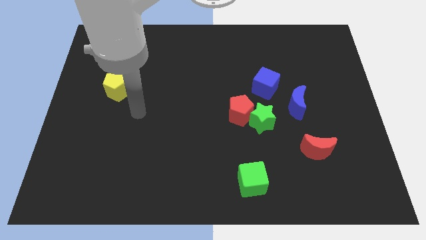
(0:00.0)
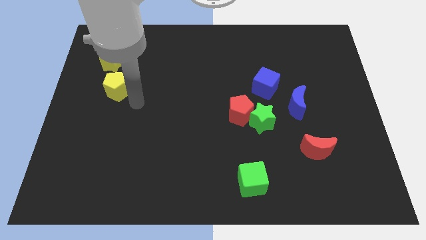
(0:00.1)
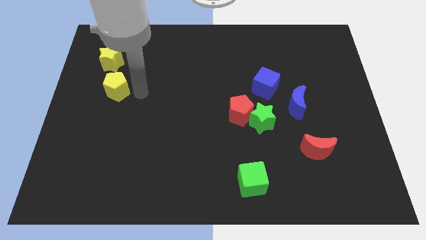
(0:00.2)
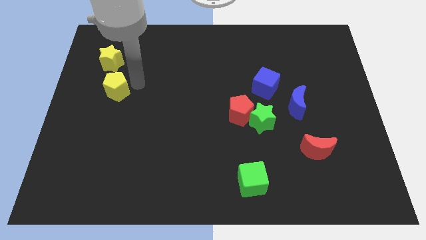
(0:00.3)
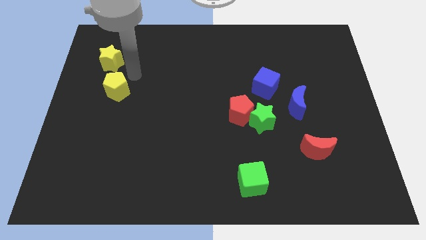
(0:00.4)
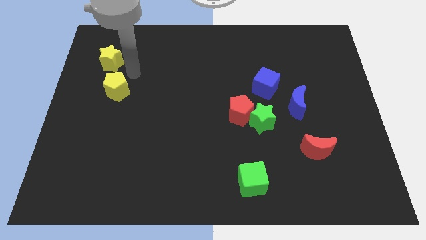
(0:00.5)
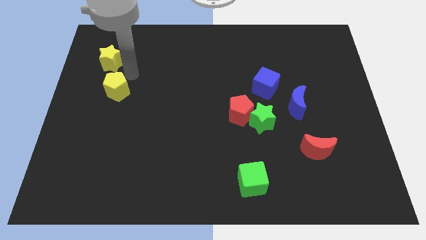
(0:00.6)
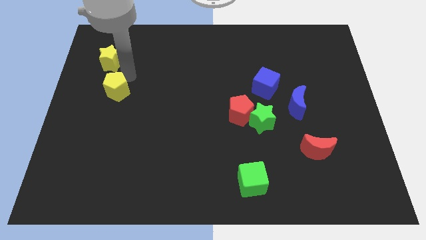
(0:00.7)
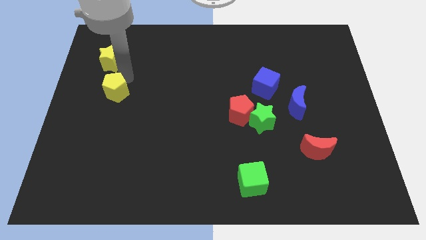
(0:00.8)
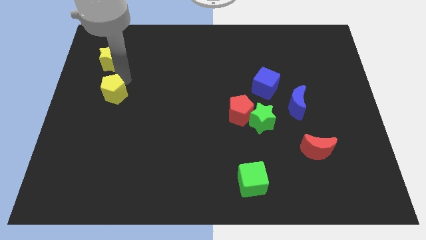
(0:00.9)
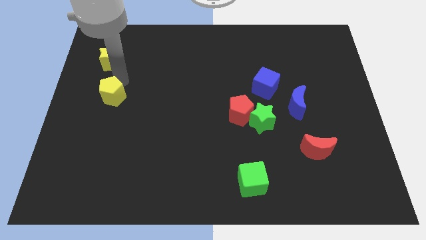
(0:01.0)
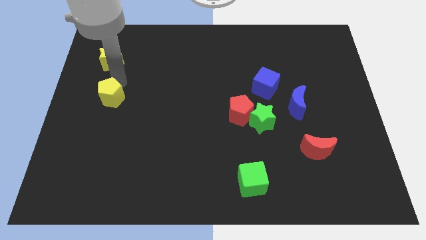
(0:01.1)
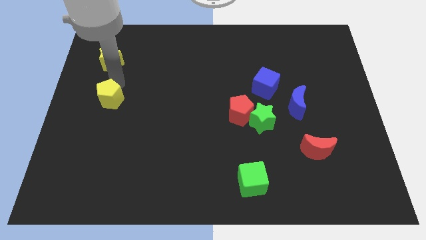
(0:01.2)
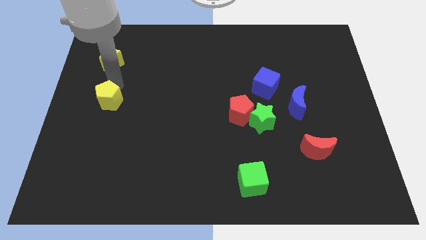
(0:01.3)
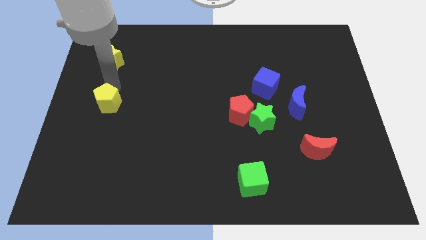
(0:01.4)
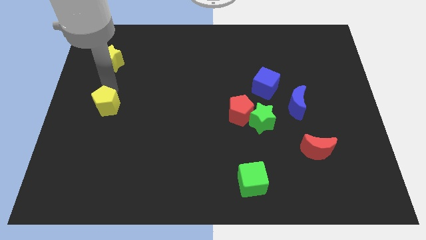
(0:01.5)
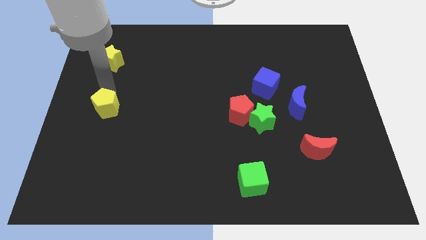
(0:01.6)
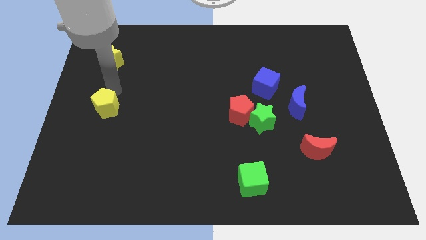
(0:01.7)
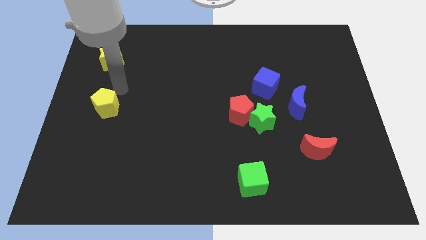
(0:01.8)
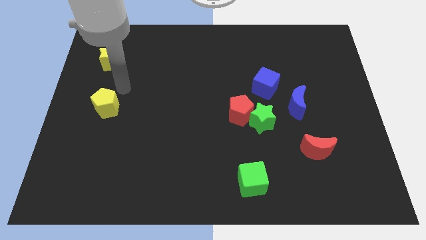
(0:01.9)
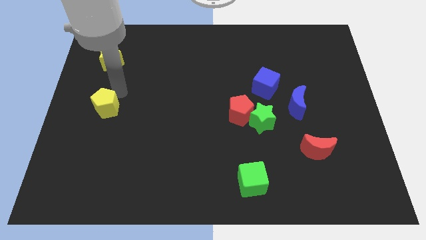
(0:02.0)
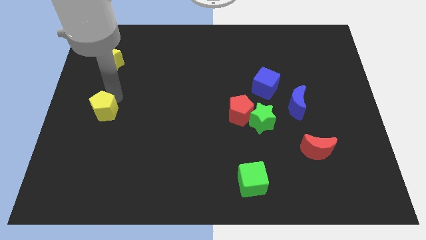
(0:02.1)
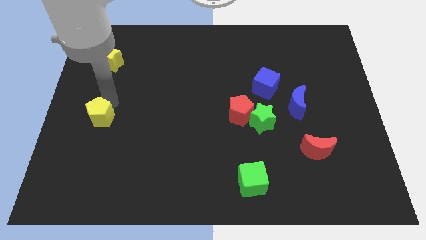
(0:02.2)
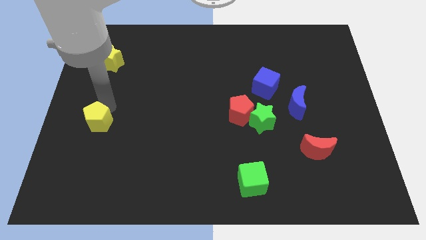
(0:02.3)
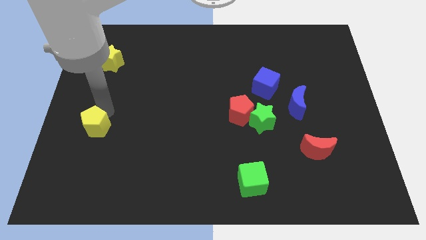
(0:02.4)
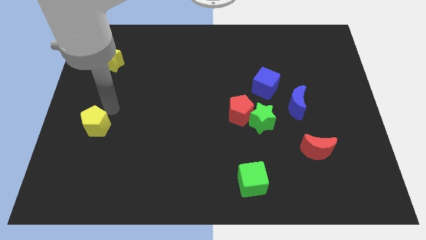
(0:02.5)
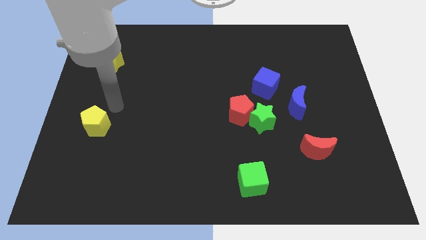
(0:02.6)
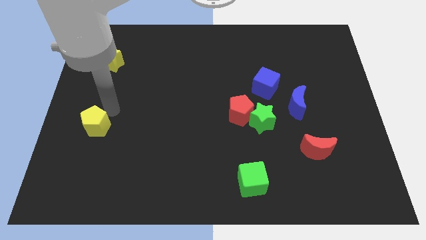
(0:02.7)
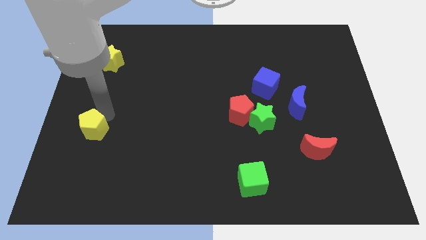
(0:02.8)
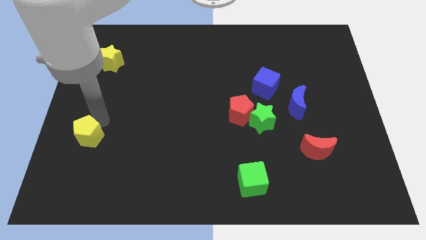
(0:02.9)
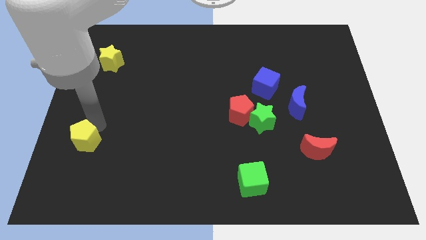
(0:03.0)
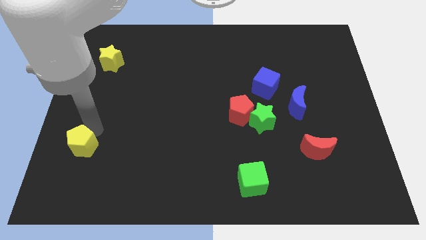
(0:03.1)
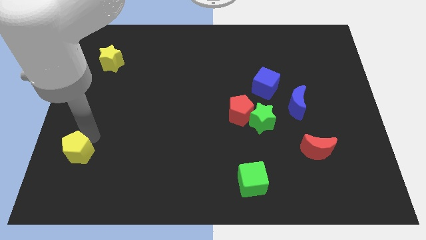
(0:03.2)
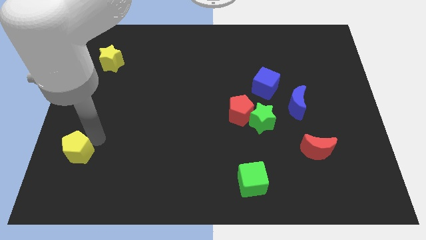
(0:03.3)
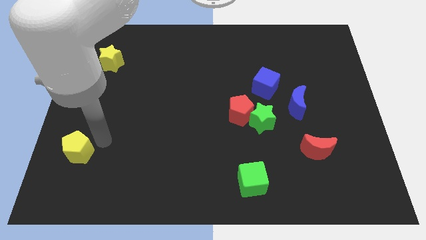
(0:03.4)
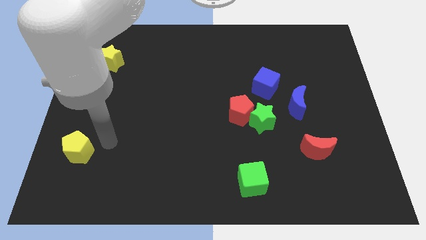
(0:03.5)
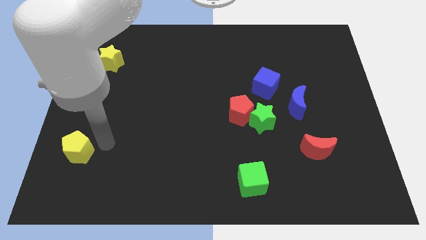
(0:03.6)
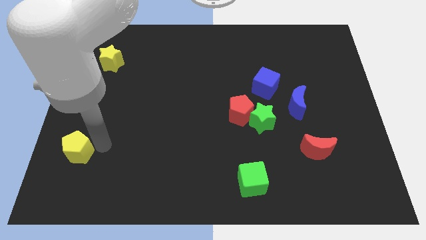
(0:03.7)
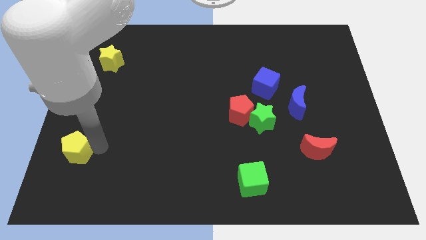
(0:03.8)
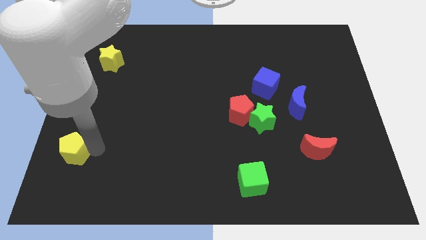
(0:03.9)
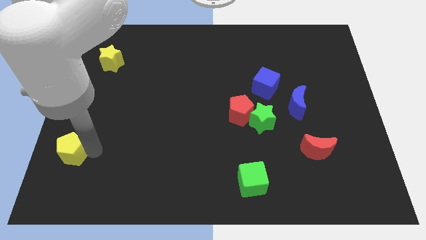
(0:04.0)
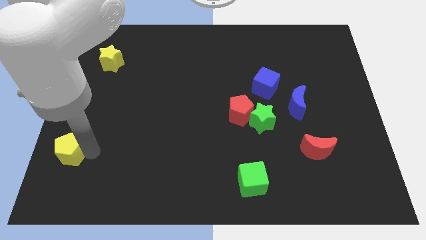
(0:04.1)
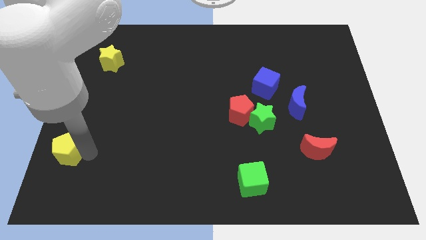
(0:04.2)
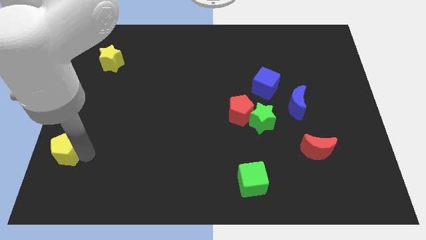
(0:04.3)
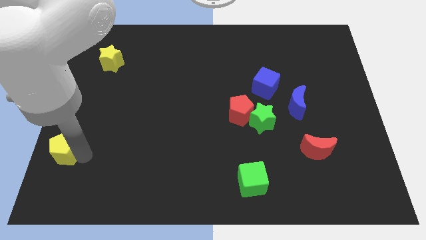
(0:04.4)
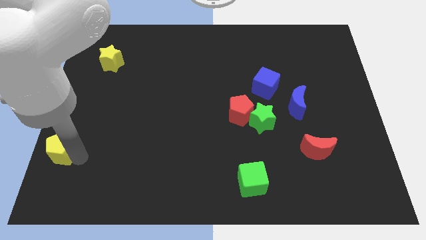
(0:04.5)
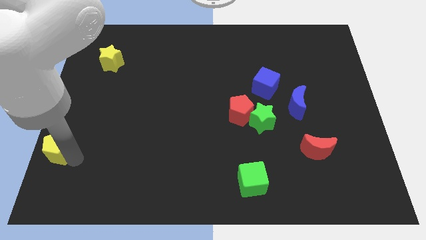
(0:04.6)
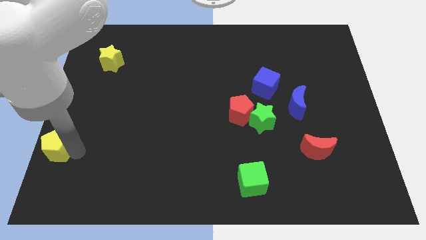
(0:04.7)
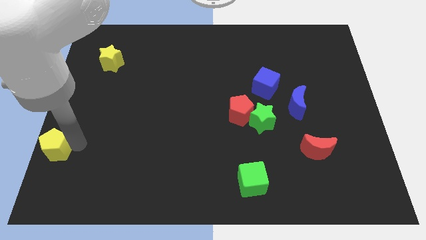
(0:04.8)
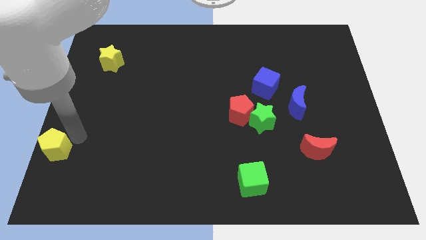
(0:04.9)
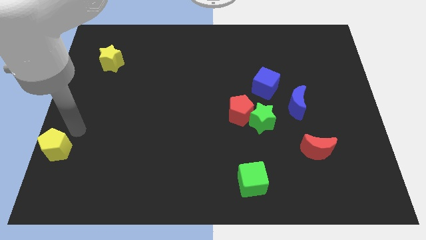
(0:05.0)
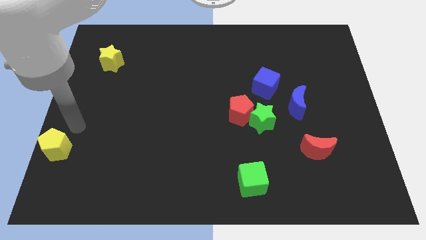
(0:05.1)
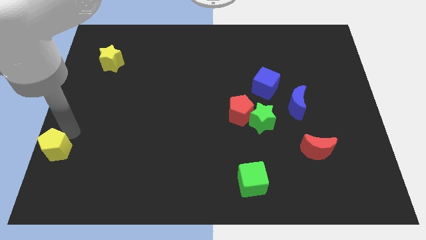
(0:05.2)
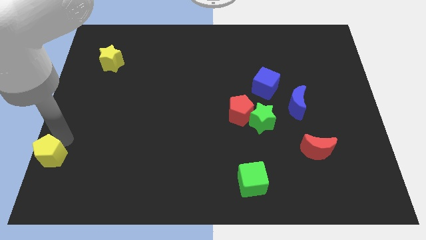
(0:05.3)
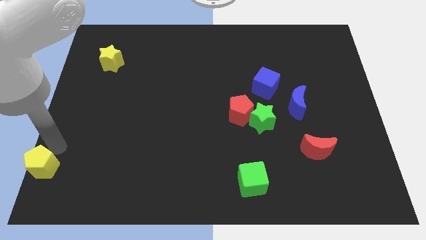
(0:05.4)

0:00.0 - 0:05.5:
slide the yellow pentagon to the lower left corner

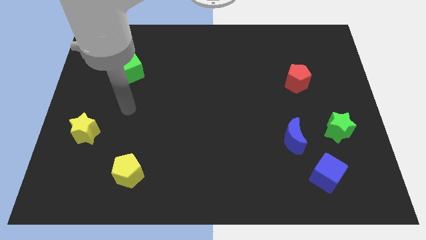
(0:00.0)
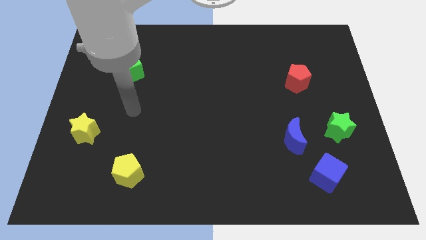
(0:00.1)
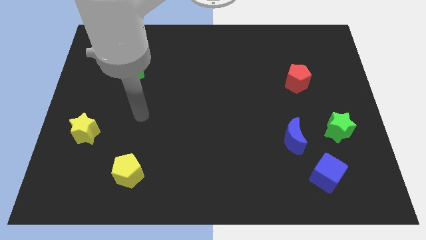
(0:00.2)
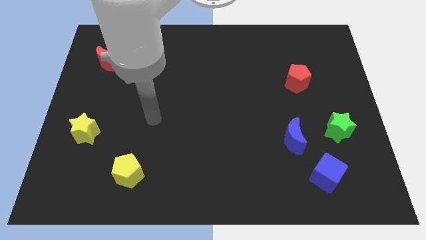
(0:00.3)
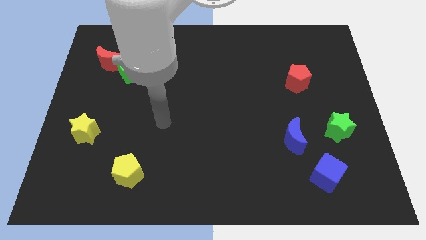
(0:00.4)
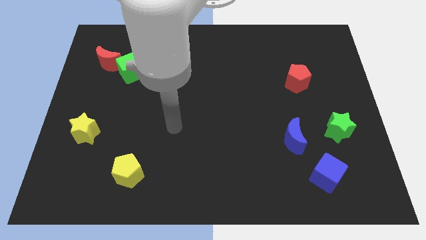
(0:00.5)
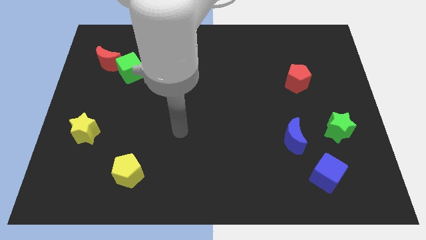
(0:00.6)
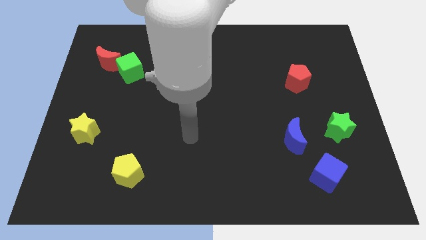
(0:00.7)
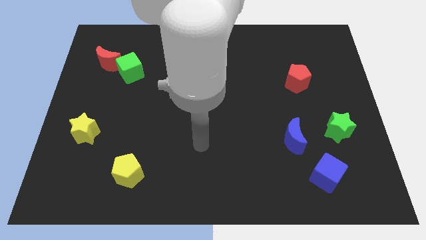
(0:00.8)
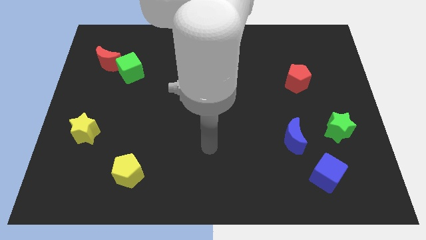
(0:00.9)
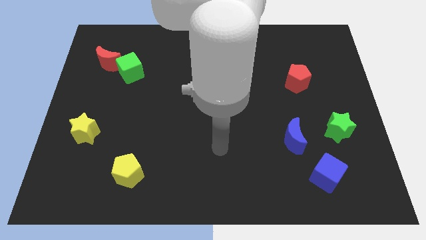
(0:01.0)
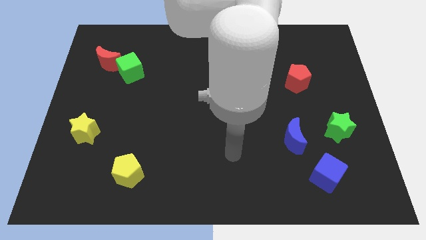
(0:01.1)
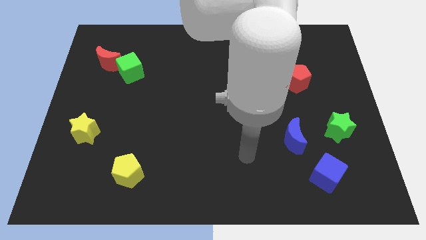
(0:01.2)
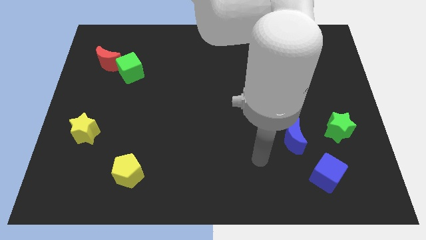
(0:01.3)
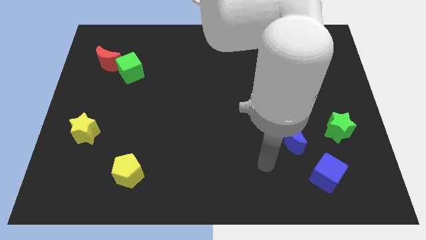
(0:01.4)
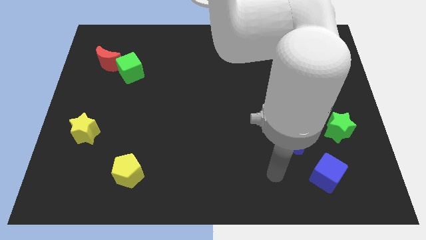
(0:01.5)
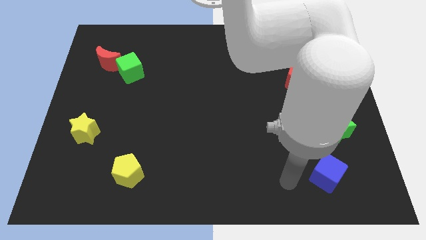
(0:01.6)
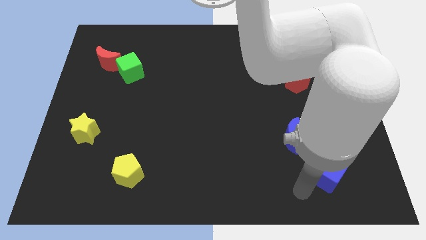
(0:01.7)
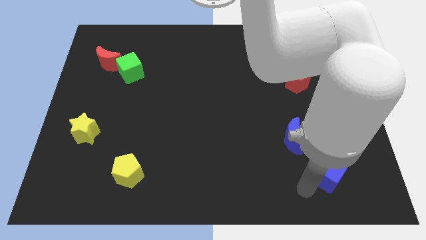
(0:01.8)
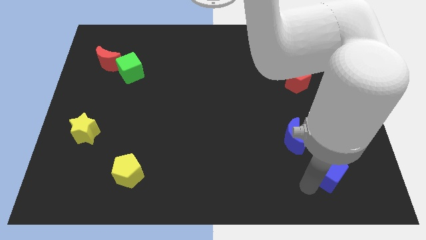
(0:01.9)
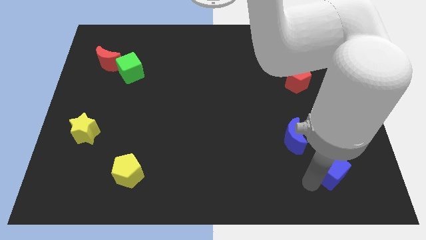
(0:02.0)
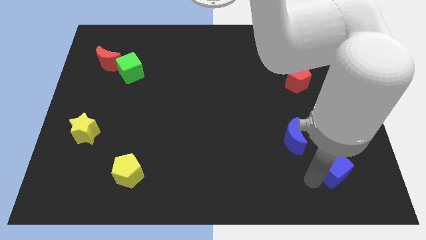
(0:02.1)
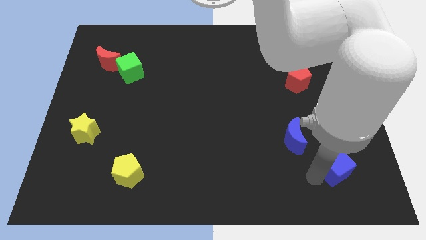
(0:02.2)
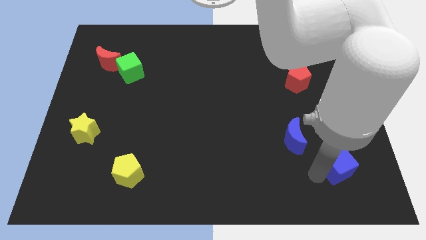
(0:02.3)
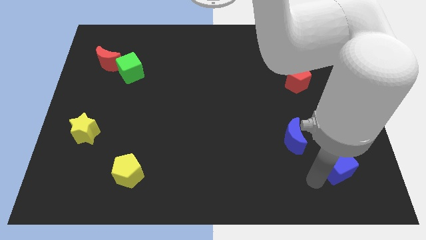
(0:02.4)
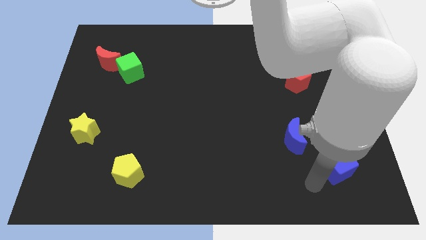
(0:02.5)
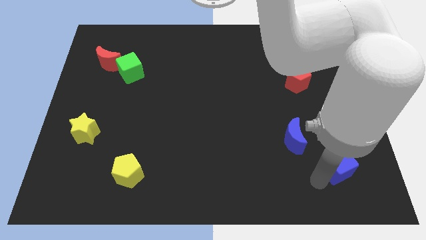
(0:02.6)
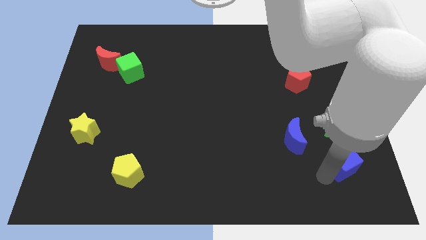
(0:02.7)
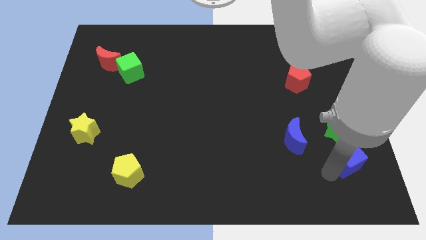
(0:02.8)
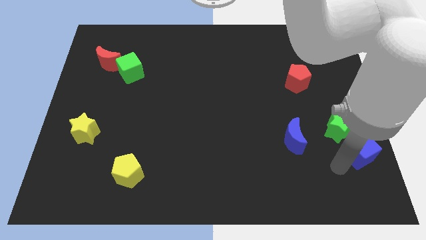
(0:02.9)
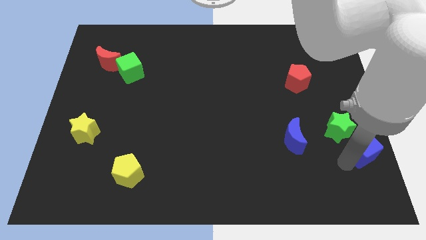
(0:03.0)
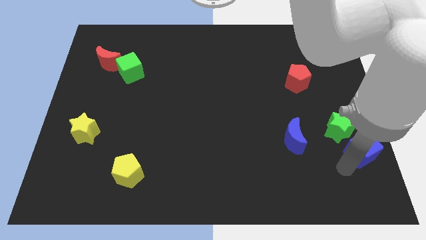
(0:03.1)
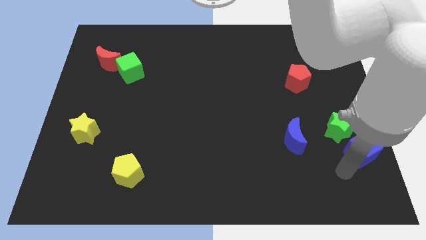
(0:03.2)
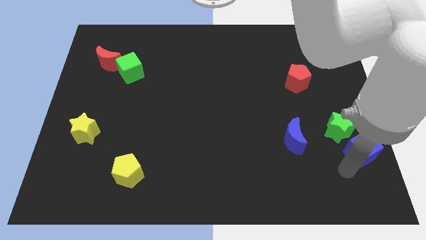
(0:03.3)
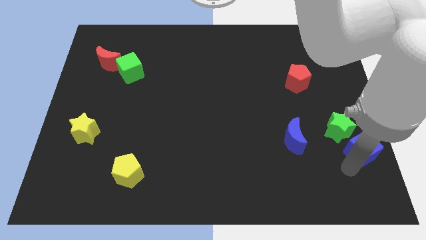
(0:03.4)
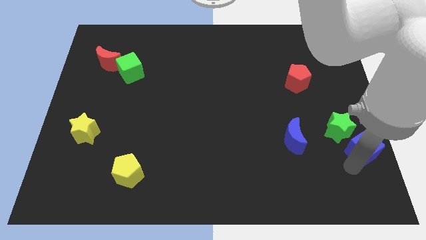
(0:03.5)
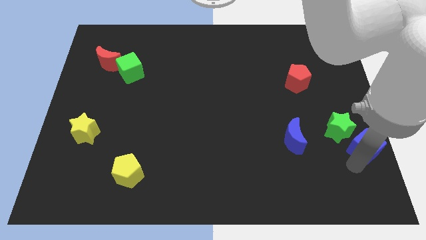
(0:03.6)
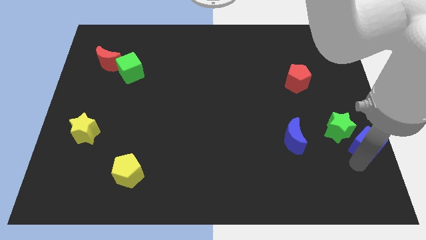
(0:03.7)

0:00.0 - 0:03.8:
push the blue cube to the right side
